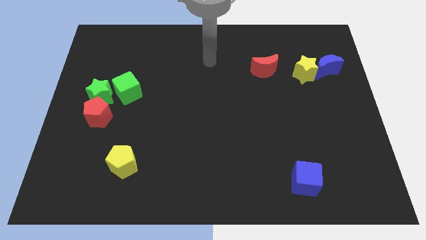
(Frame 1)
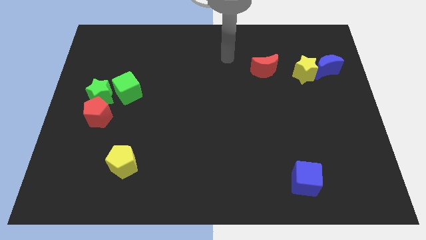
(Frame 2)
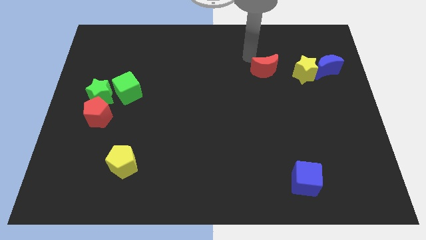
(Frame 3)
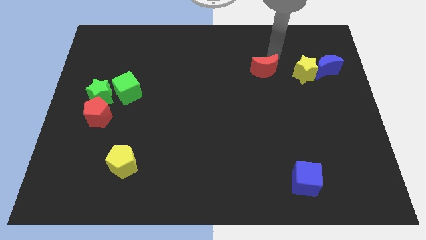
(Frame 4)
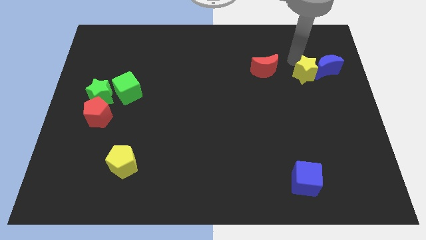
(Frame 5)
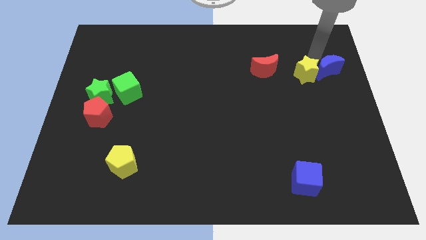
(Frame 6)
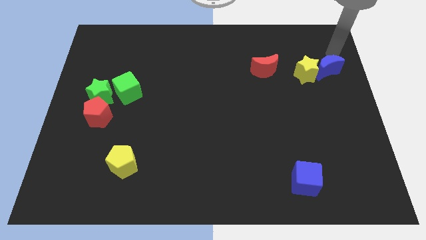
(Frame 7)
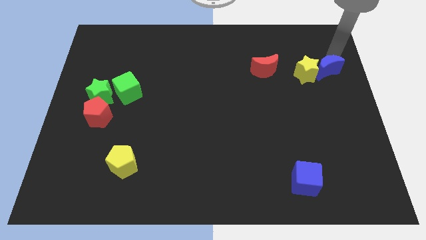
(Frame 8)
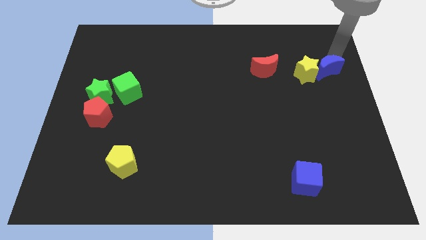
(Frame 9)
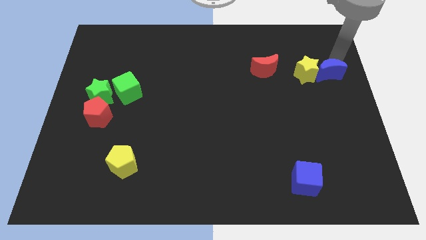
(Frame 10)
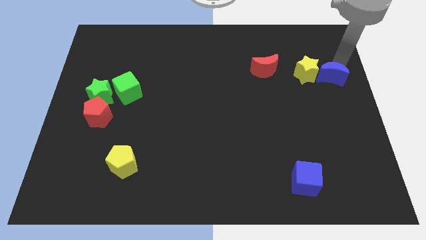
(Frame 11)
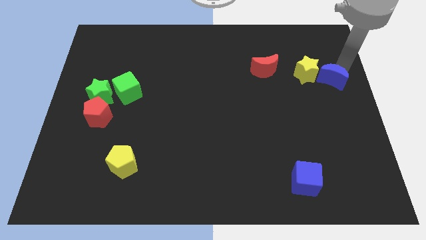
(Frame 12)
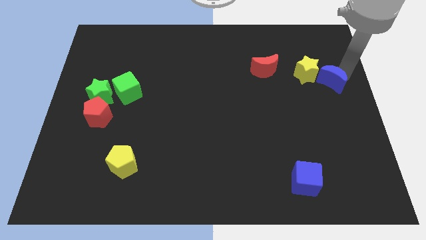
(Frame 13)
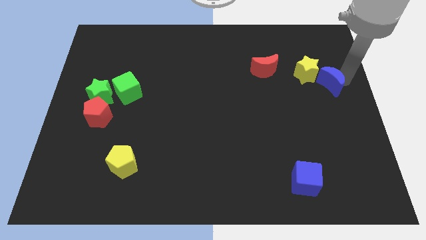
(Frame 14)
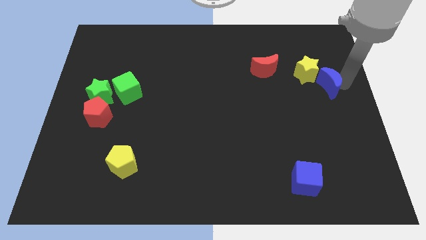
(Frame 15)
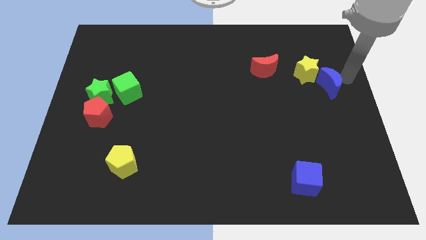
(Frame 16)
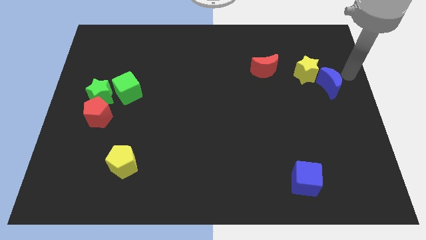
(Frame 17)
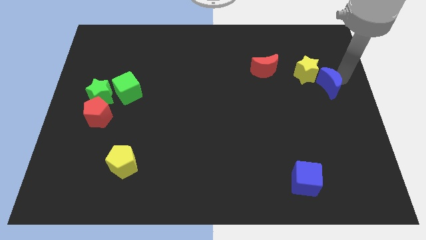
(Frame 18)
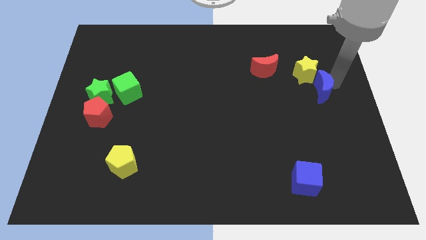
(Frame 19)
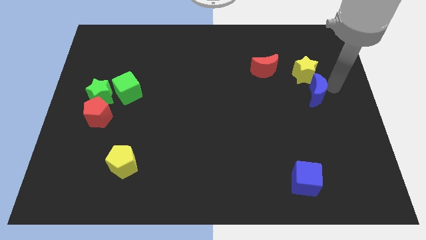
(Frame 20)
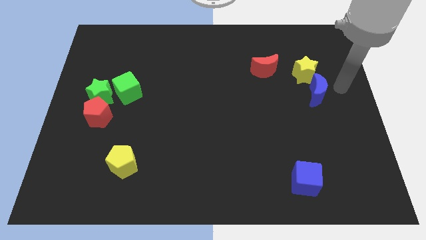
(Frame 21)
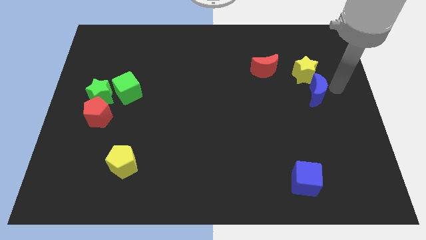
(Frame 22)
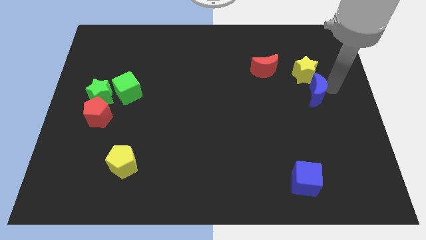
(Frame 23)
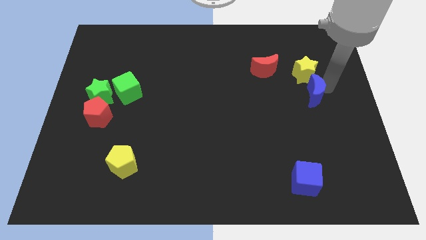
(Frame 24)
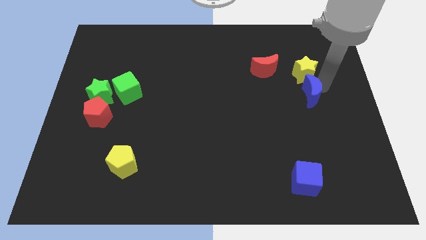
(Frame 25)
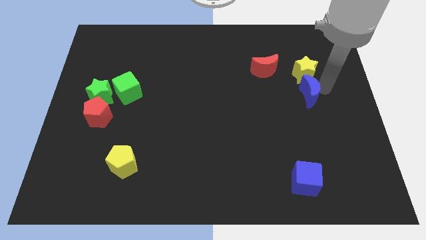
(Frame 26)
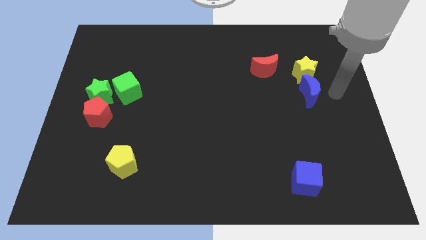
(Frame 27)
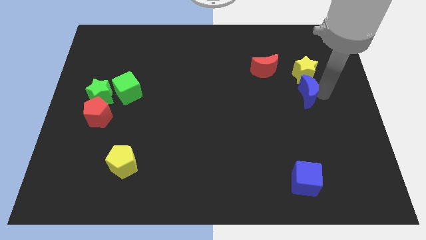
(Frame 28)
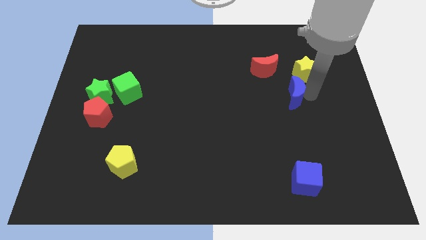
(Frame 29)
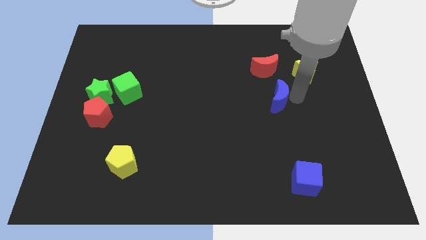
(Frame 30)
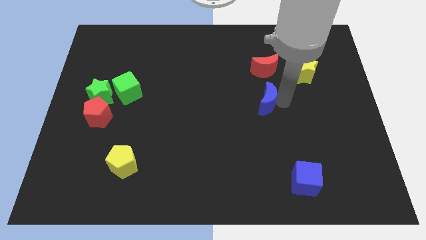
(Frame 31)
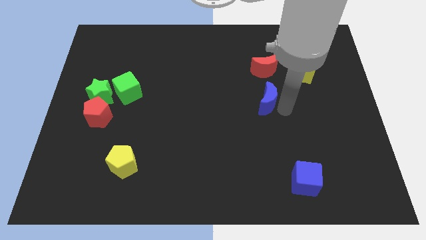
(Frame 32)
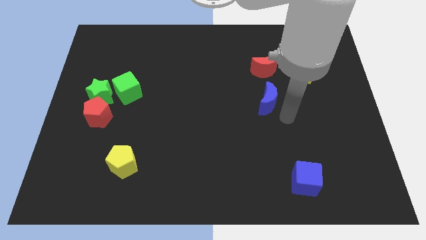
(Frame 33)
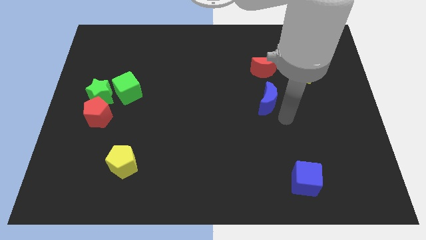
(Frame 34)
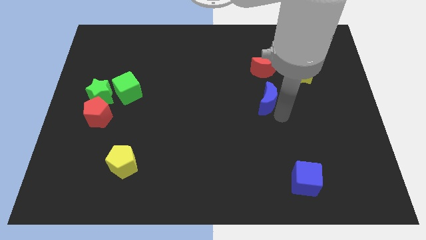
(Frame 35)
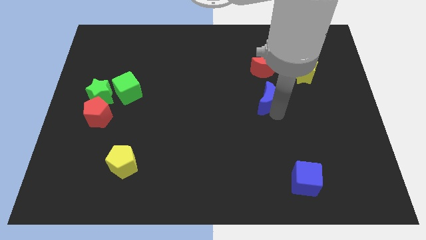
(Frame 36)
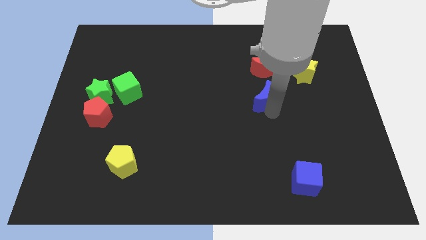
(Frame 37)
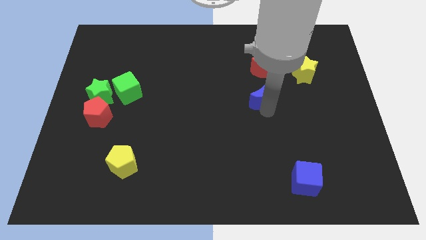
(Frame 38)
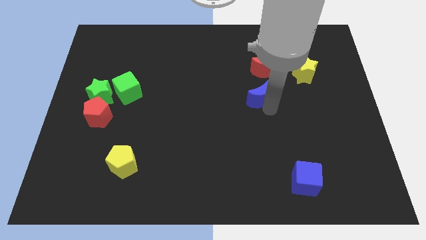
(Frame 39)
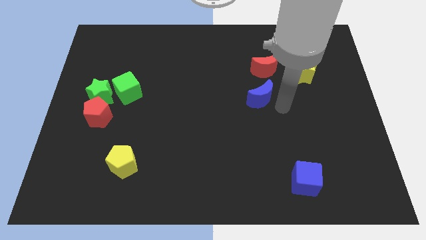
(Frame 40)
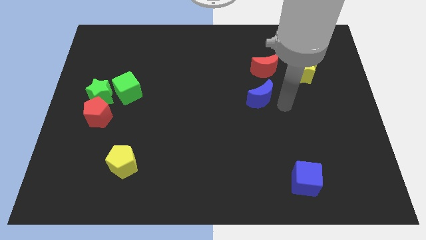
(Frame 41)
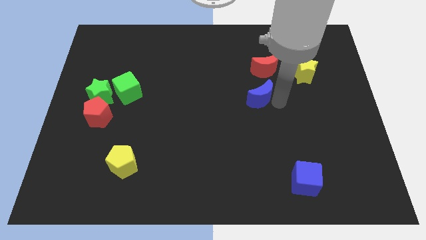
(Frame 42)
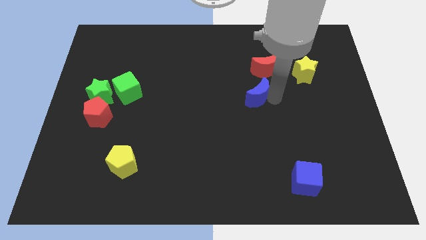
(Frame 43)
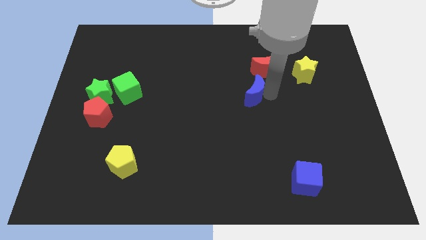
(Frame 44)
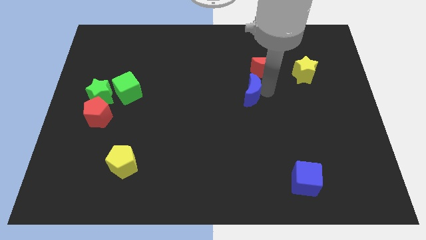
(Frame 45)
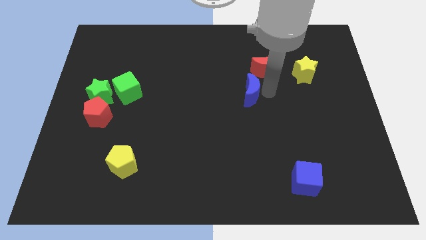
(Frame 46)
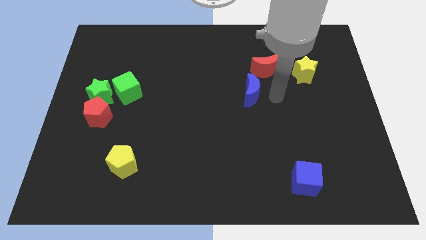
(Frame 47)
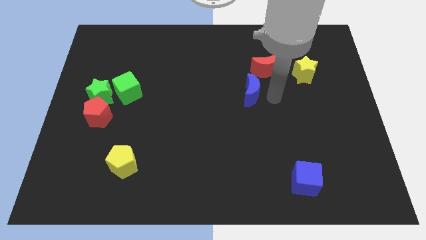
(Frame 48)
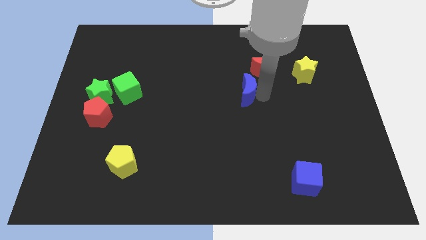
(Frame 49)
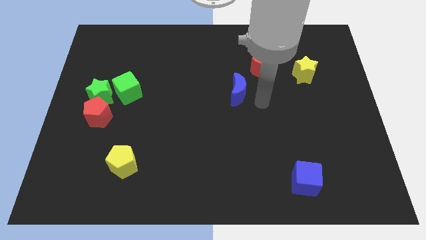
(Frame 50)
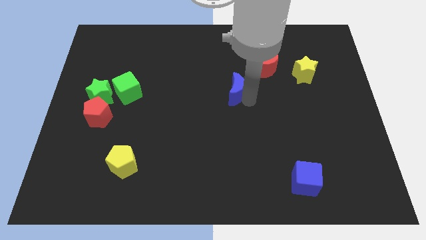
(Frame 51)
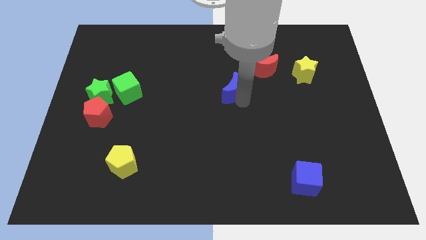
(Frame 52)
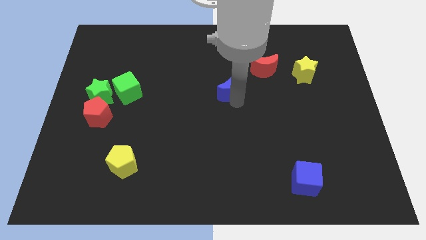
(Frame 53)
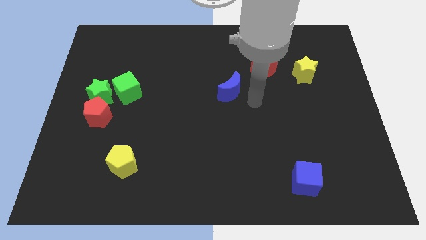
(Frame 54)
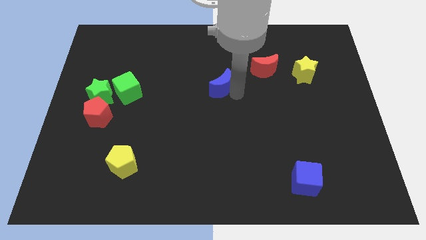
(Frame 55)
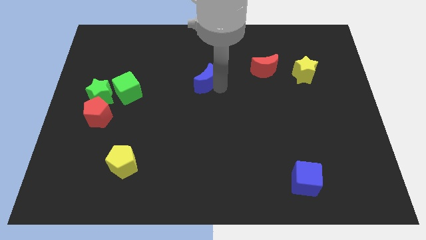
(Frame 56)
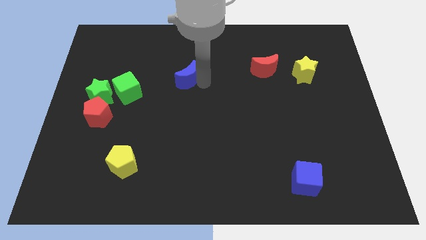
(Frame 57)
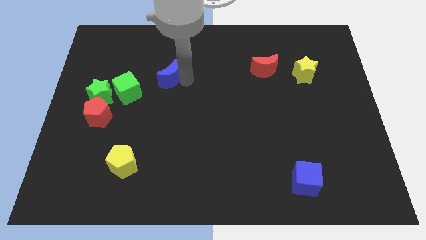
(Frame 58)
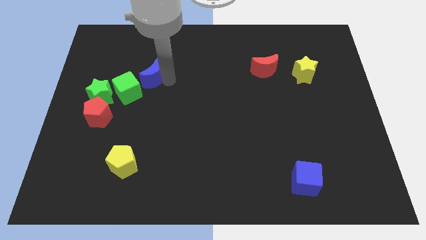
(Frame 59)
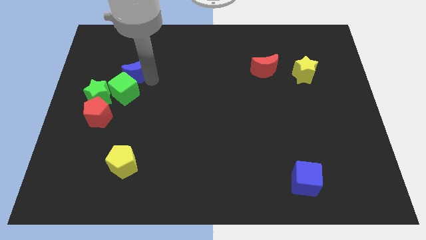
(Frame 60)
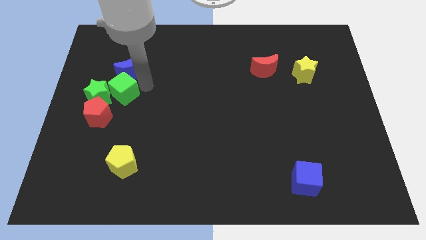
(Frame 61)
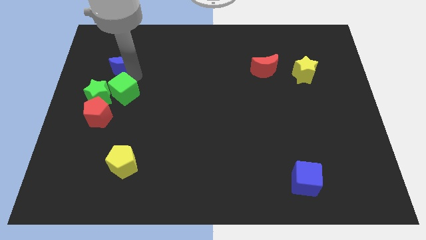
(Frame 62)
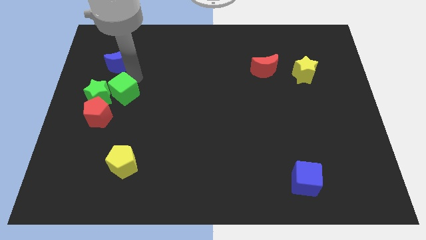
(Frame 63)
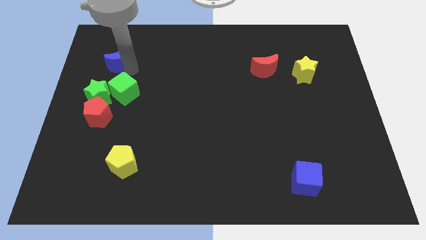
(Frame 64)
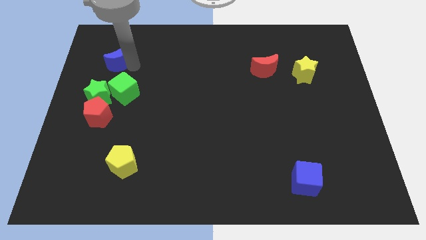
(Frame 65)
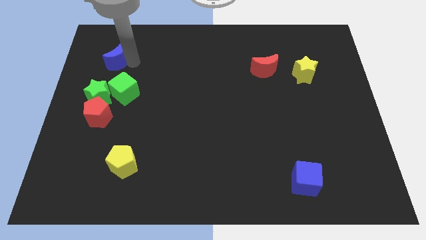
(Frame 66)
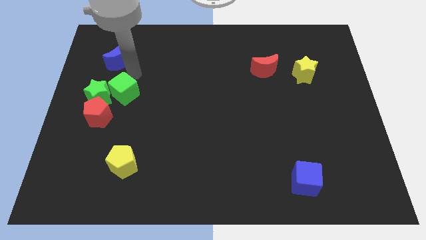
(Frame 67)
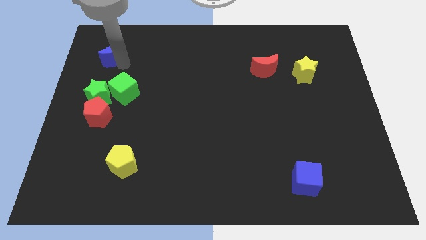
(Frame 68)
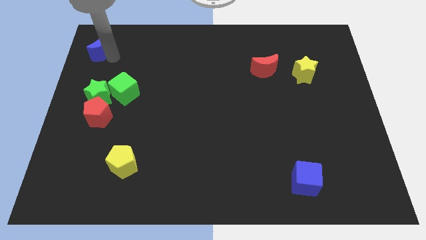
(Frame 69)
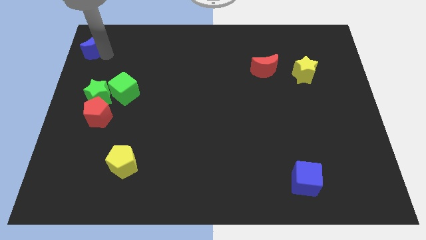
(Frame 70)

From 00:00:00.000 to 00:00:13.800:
move the blue moon to the top left corner
